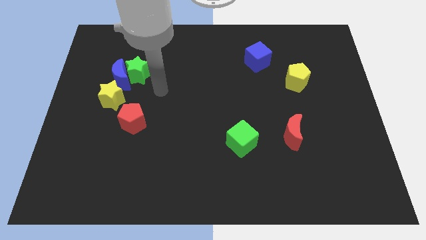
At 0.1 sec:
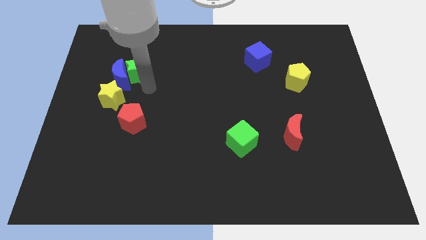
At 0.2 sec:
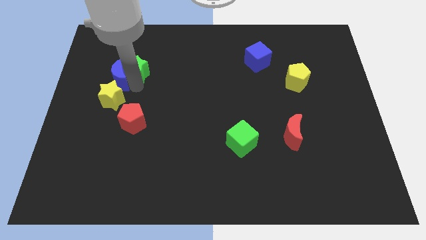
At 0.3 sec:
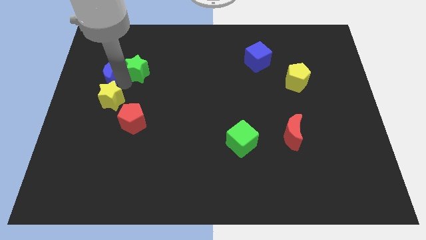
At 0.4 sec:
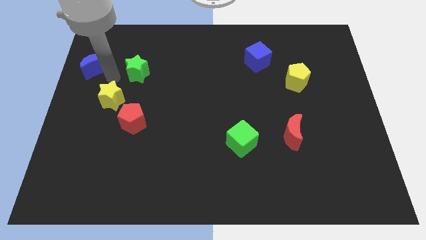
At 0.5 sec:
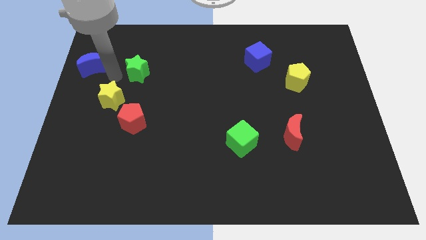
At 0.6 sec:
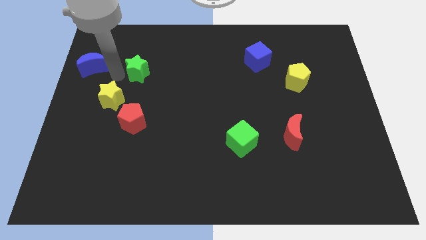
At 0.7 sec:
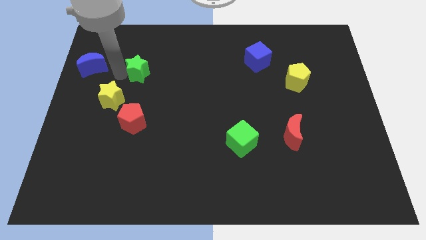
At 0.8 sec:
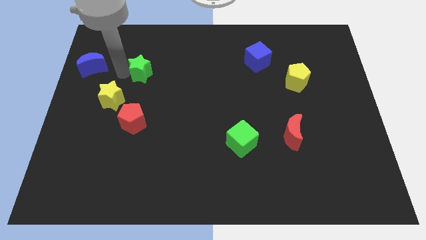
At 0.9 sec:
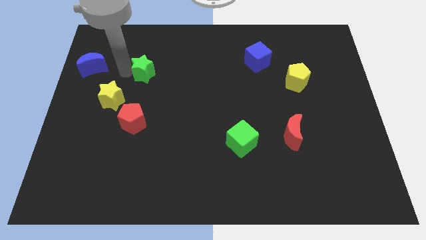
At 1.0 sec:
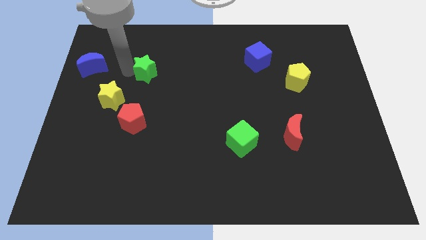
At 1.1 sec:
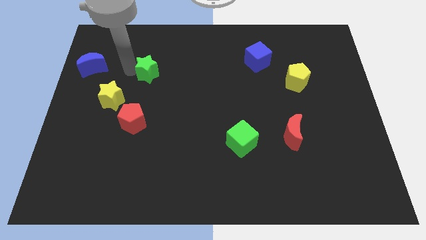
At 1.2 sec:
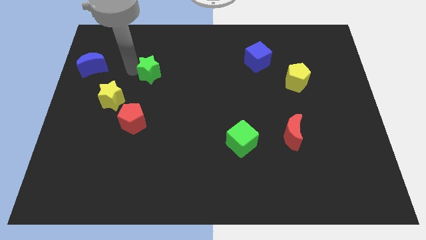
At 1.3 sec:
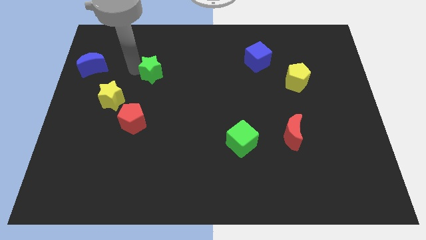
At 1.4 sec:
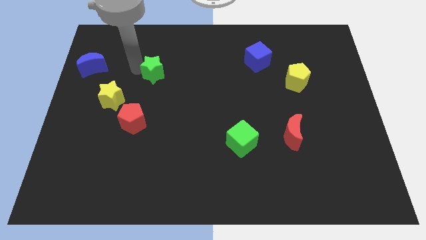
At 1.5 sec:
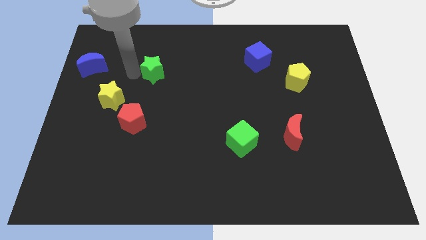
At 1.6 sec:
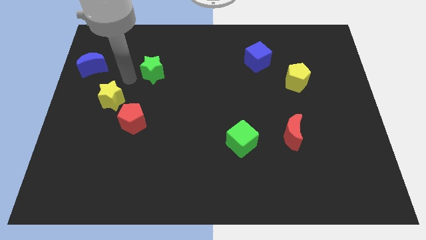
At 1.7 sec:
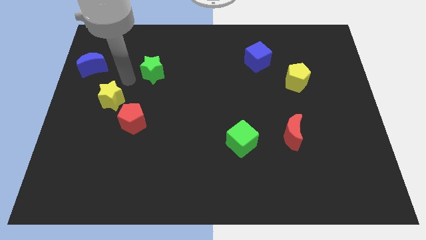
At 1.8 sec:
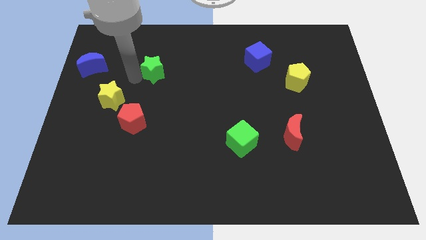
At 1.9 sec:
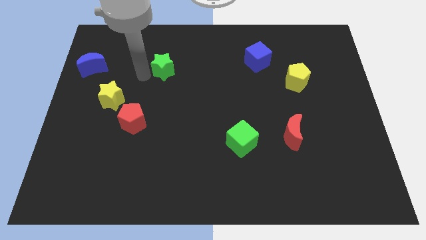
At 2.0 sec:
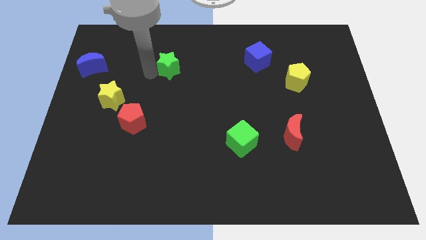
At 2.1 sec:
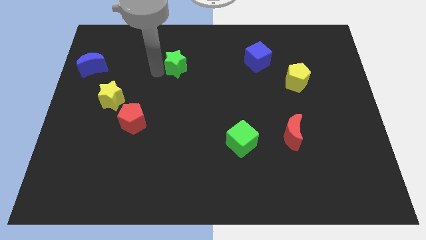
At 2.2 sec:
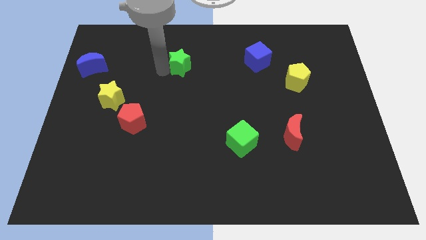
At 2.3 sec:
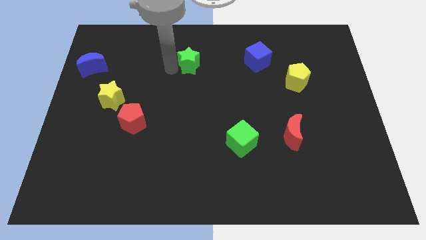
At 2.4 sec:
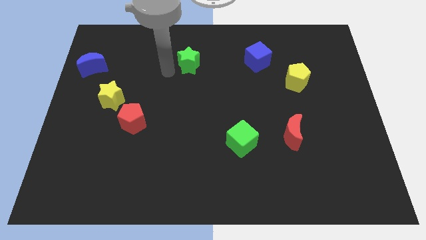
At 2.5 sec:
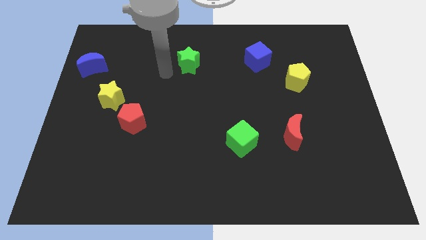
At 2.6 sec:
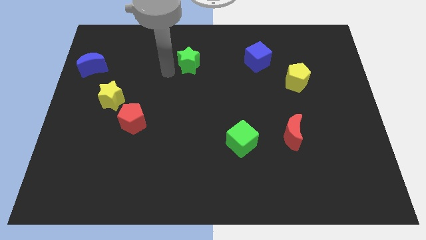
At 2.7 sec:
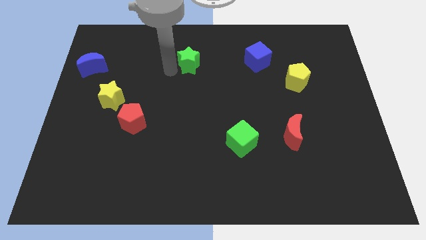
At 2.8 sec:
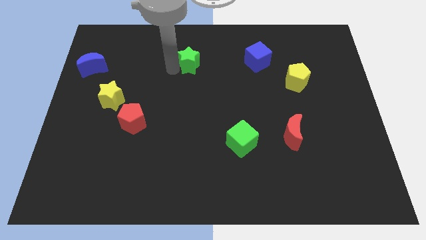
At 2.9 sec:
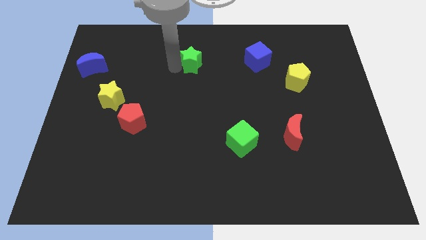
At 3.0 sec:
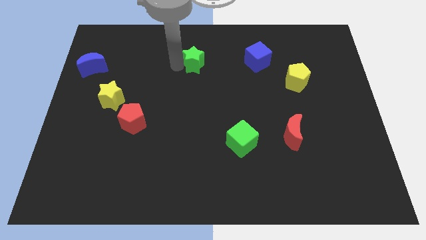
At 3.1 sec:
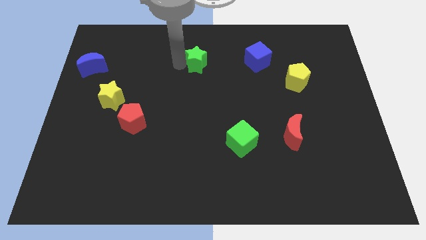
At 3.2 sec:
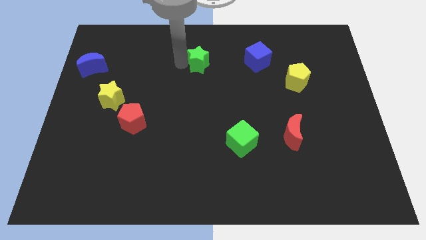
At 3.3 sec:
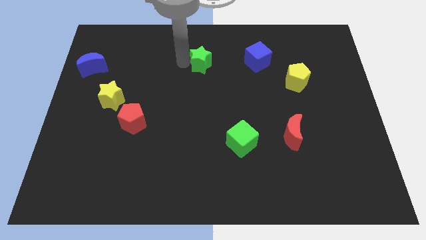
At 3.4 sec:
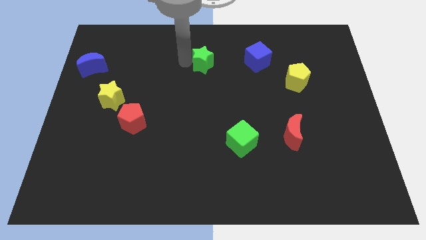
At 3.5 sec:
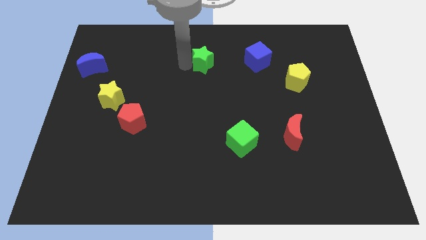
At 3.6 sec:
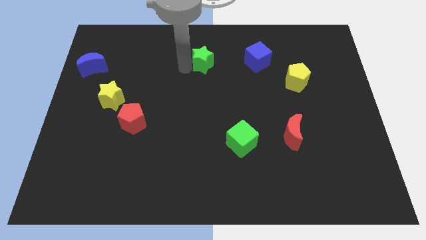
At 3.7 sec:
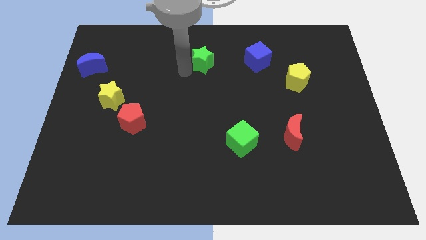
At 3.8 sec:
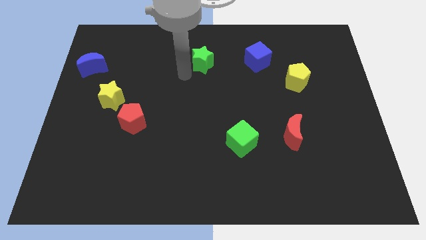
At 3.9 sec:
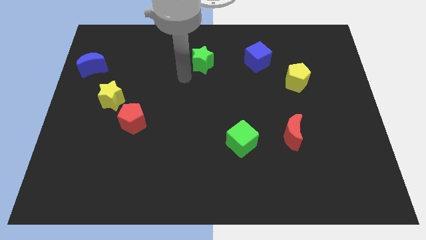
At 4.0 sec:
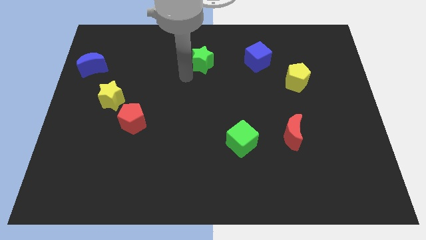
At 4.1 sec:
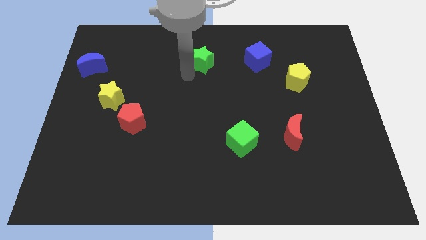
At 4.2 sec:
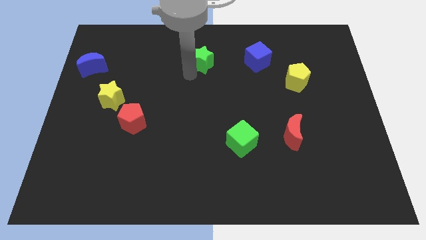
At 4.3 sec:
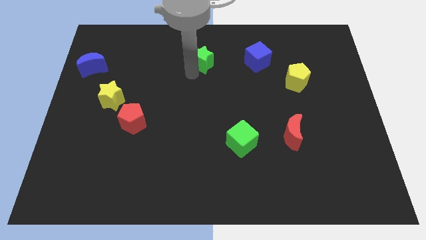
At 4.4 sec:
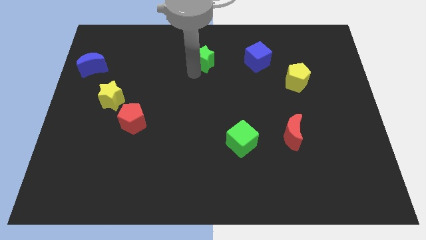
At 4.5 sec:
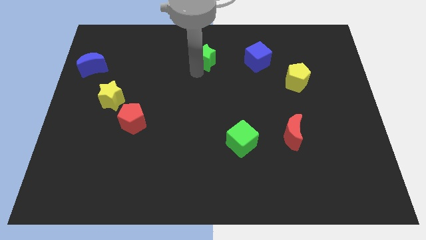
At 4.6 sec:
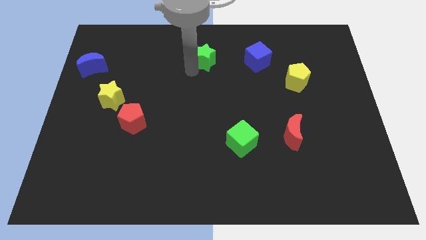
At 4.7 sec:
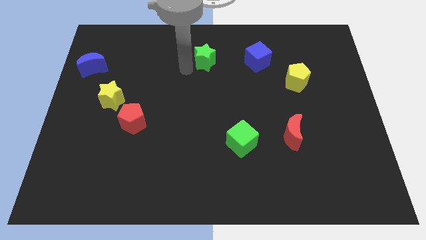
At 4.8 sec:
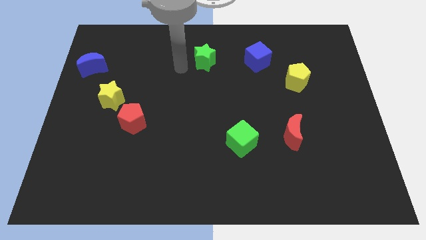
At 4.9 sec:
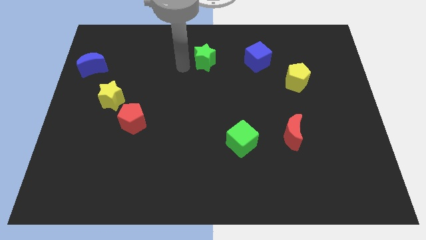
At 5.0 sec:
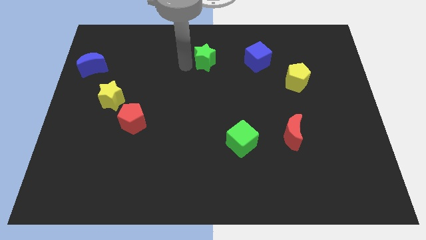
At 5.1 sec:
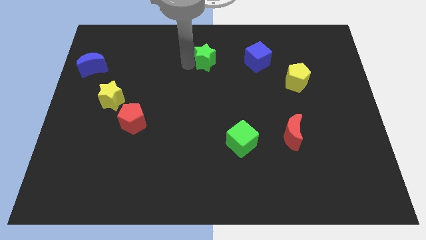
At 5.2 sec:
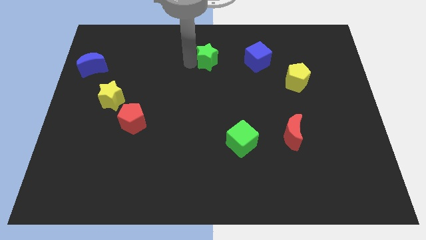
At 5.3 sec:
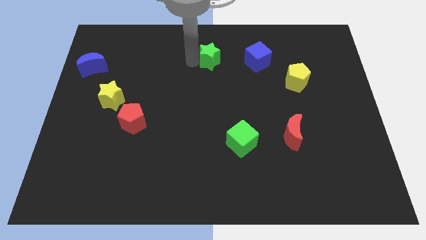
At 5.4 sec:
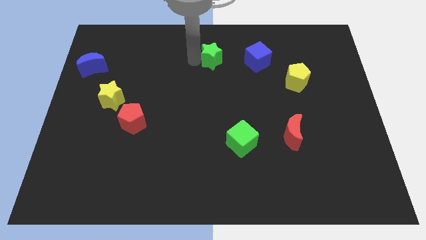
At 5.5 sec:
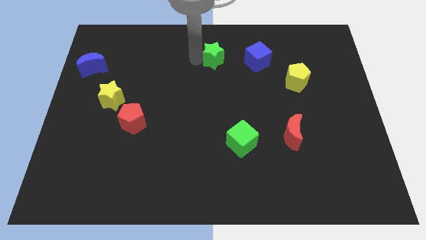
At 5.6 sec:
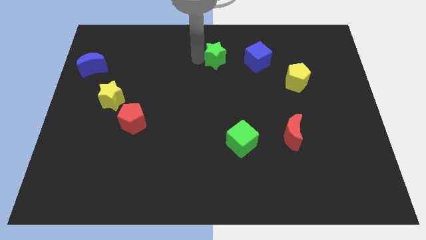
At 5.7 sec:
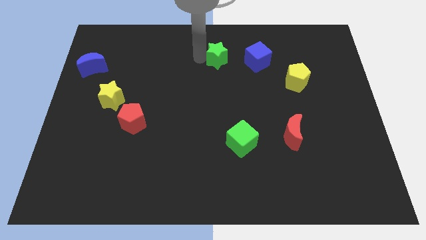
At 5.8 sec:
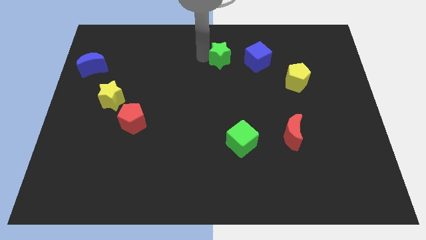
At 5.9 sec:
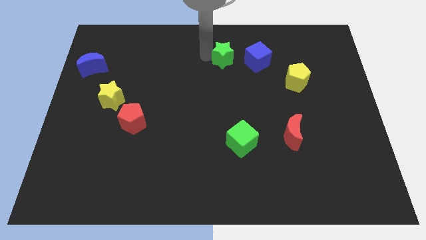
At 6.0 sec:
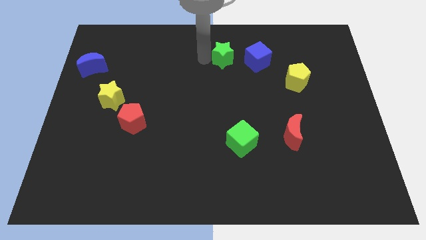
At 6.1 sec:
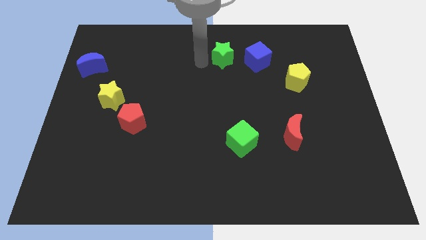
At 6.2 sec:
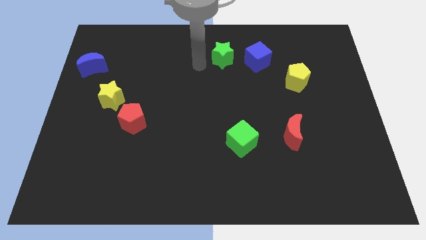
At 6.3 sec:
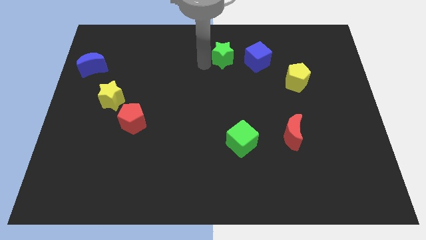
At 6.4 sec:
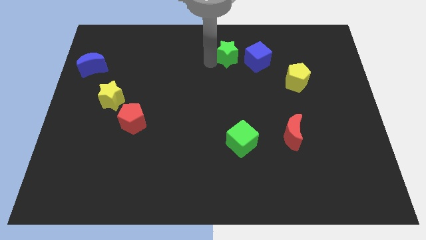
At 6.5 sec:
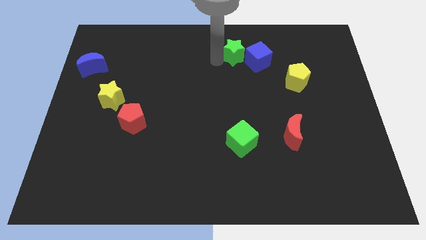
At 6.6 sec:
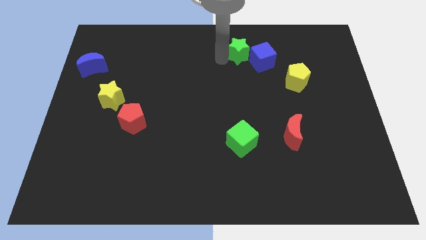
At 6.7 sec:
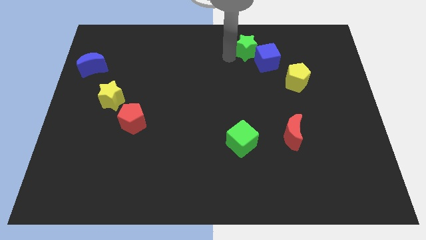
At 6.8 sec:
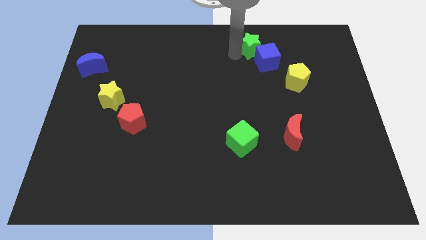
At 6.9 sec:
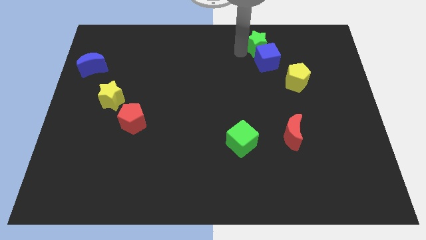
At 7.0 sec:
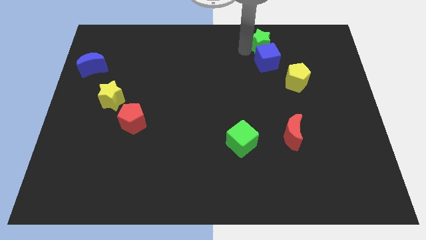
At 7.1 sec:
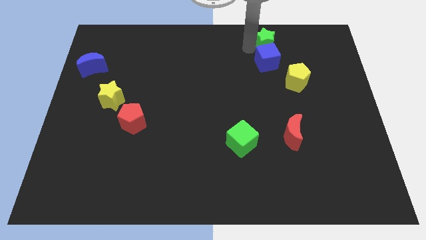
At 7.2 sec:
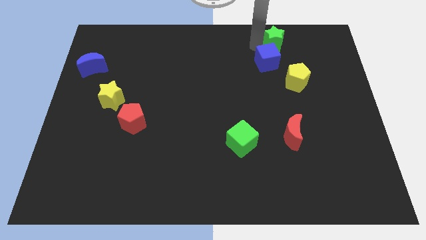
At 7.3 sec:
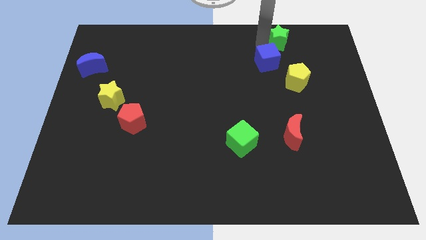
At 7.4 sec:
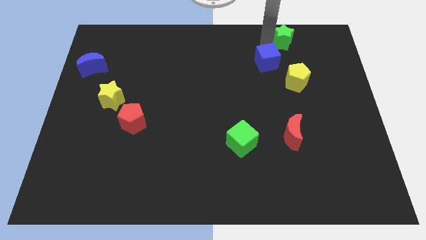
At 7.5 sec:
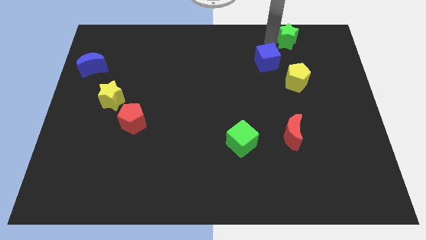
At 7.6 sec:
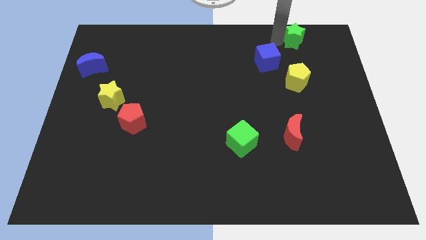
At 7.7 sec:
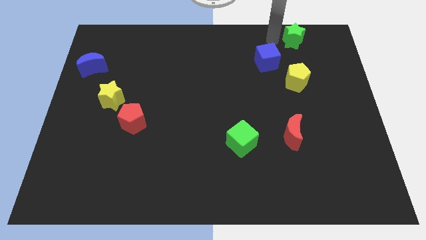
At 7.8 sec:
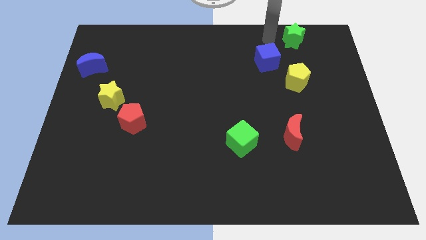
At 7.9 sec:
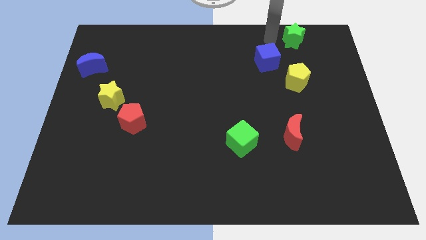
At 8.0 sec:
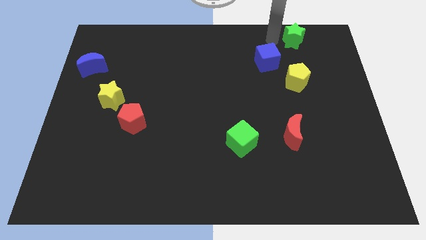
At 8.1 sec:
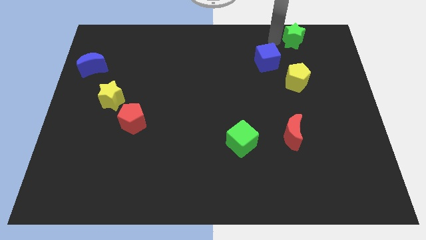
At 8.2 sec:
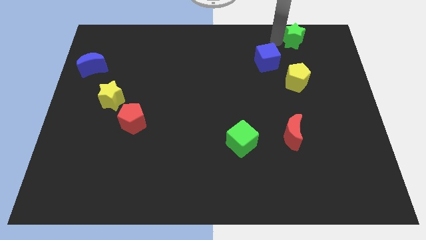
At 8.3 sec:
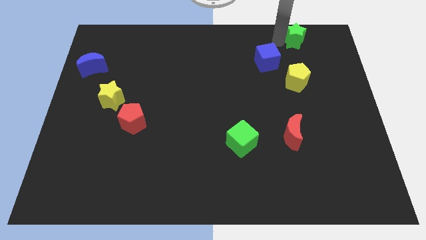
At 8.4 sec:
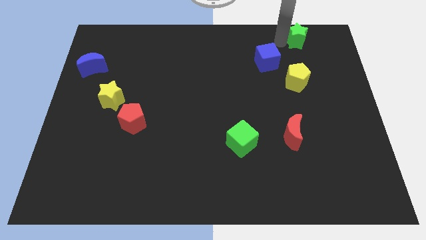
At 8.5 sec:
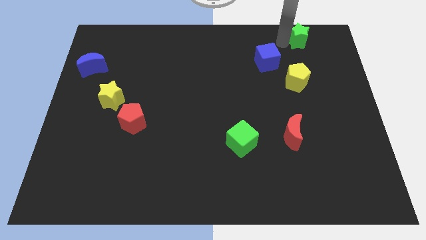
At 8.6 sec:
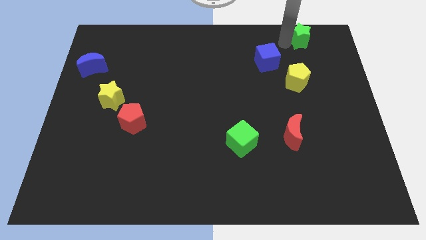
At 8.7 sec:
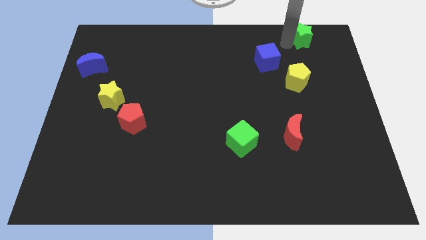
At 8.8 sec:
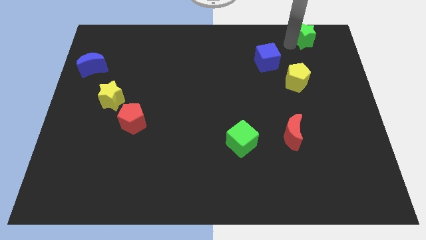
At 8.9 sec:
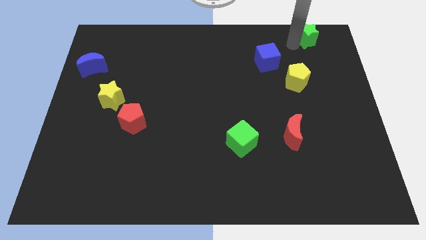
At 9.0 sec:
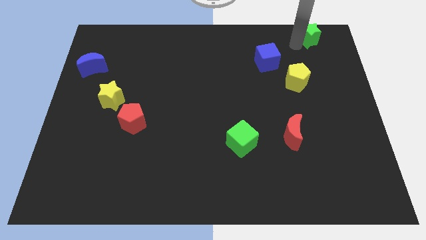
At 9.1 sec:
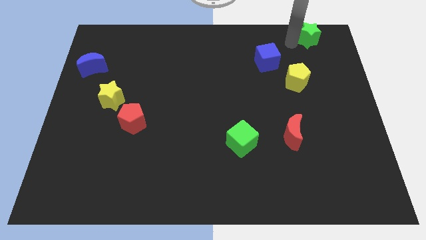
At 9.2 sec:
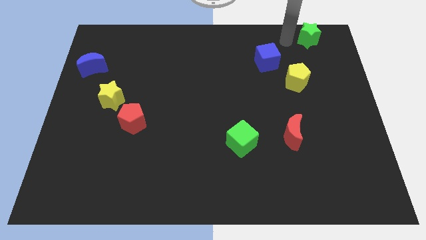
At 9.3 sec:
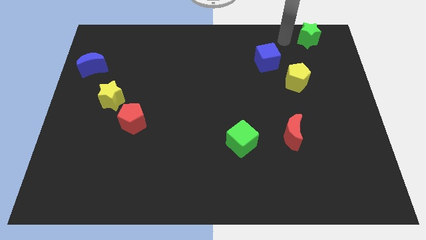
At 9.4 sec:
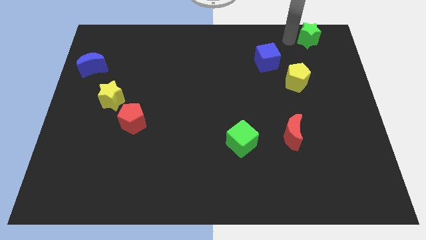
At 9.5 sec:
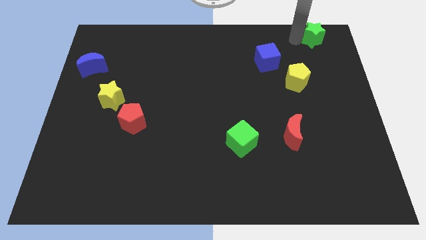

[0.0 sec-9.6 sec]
move the green star to the top right corner
